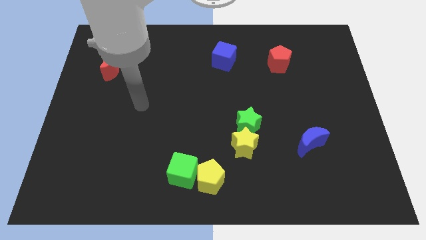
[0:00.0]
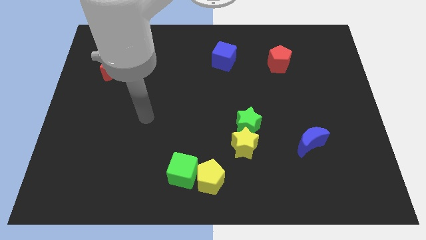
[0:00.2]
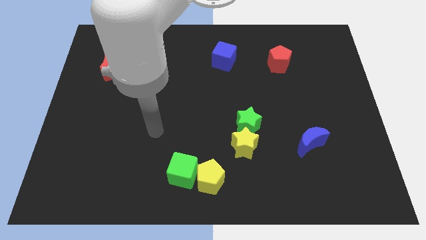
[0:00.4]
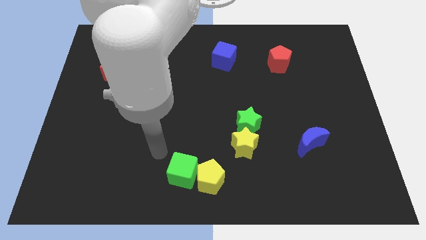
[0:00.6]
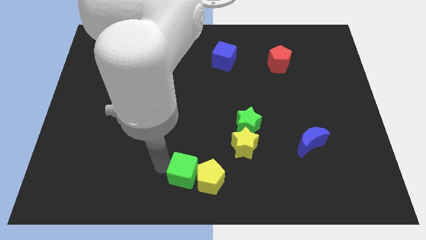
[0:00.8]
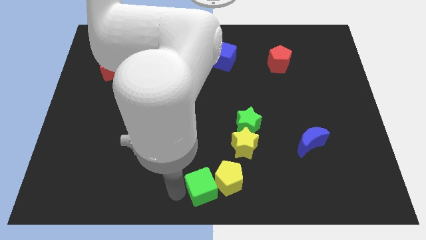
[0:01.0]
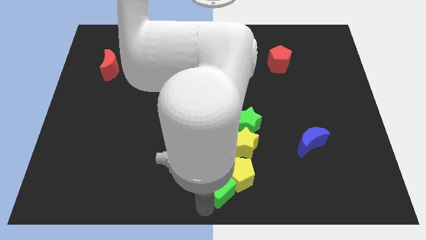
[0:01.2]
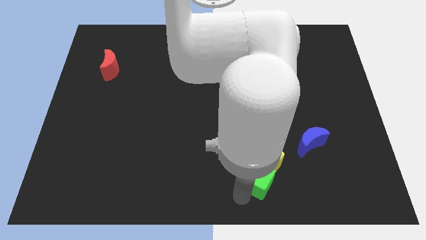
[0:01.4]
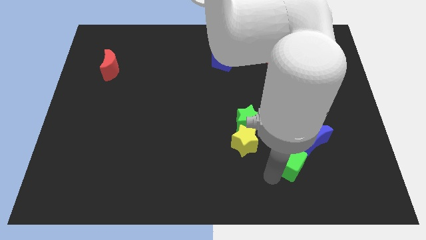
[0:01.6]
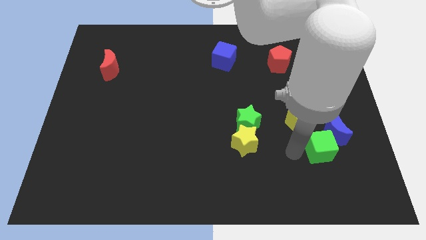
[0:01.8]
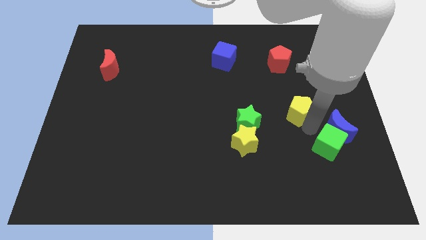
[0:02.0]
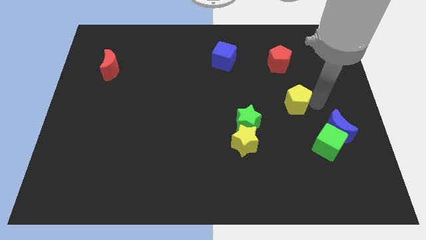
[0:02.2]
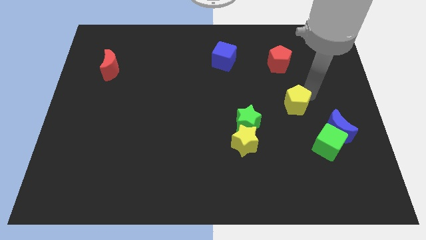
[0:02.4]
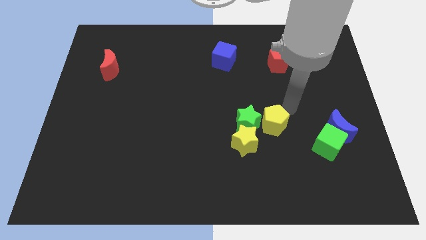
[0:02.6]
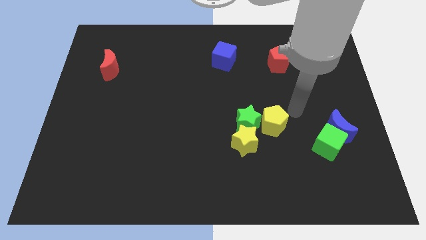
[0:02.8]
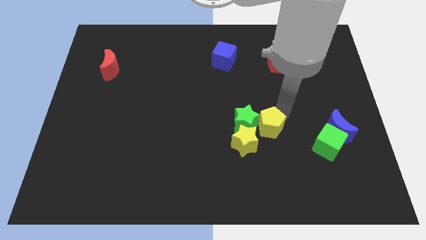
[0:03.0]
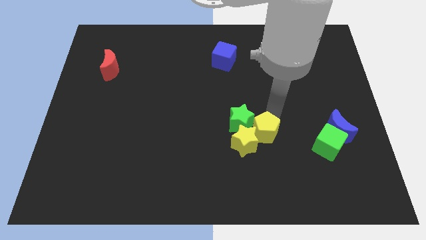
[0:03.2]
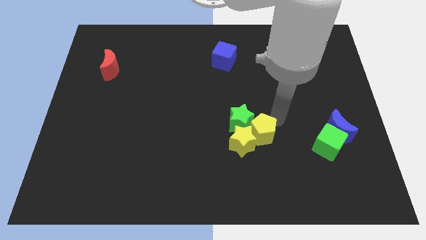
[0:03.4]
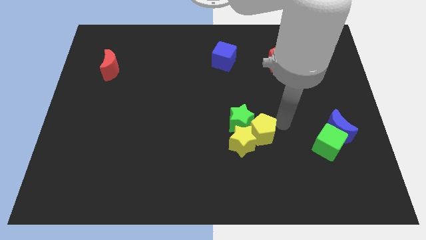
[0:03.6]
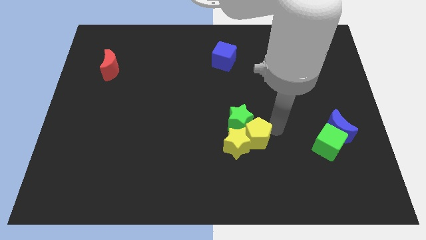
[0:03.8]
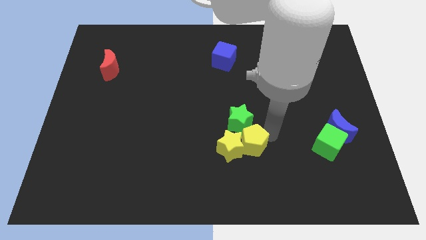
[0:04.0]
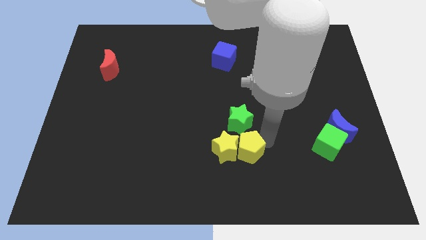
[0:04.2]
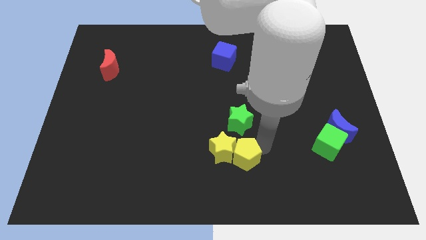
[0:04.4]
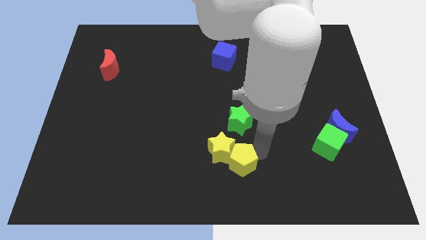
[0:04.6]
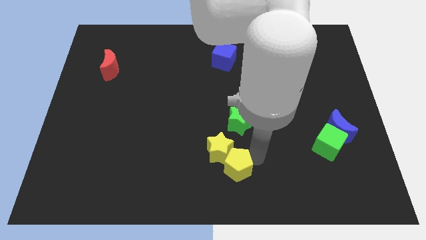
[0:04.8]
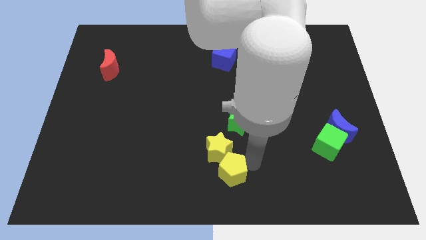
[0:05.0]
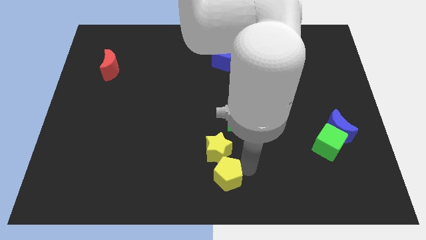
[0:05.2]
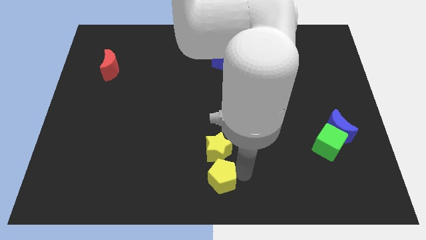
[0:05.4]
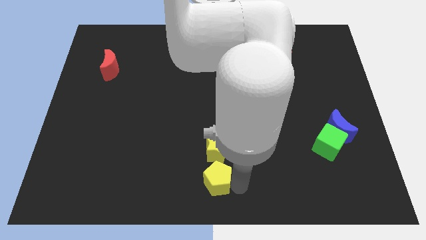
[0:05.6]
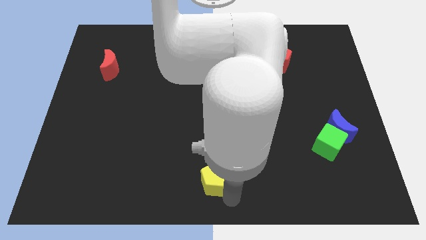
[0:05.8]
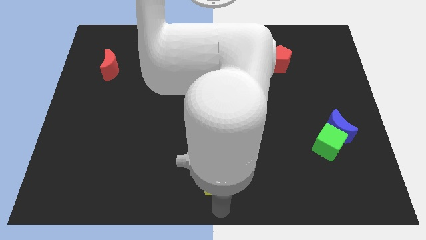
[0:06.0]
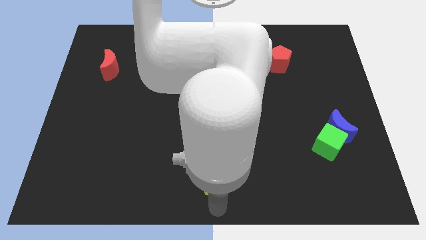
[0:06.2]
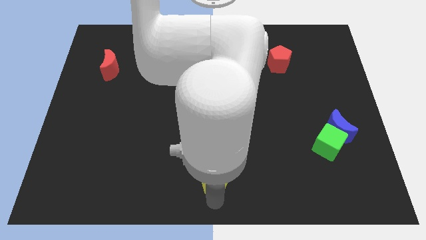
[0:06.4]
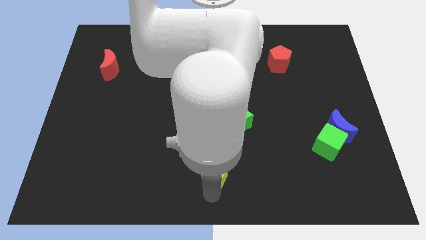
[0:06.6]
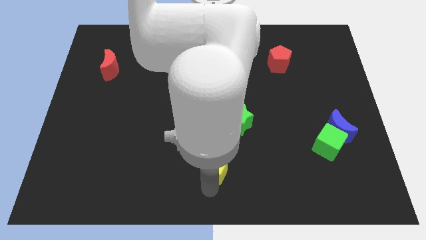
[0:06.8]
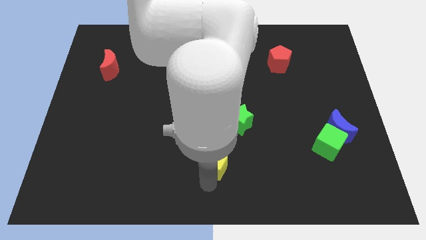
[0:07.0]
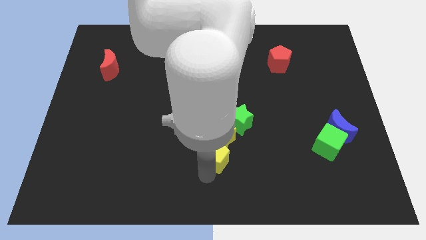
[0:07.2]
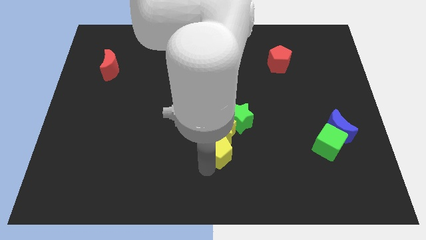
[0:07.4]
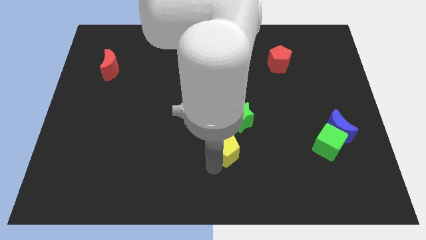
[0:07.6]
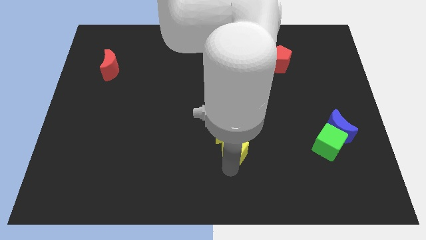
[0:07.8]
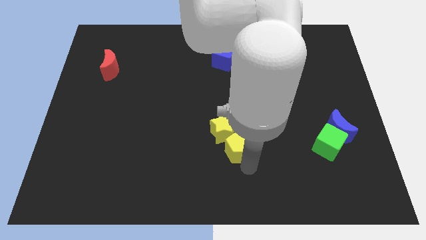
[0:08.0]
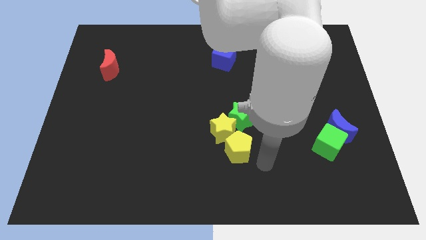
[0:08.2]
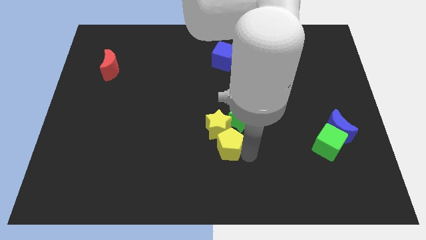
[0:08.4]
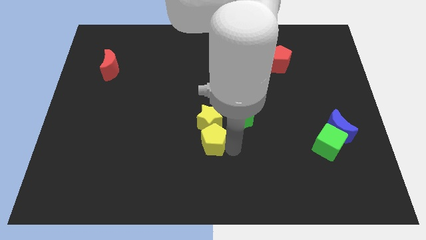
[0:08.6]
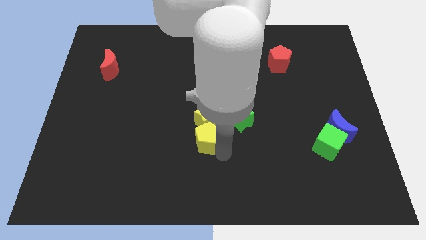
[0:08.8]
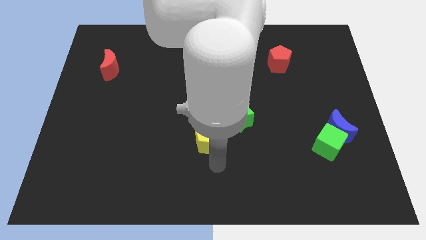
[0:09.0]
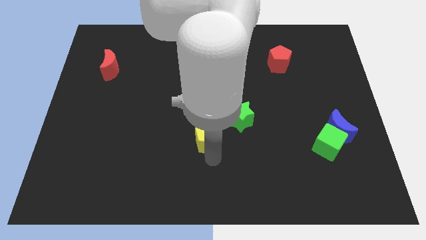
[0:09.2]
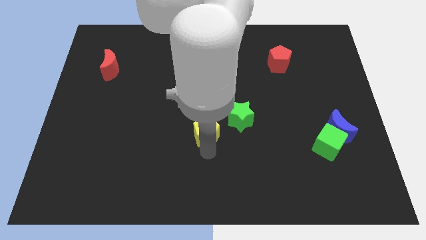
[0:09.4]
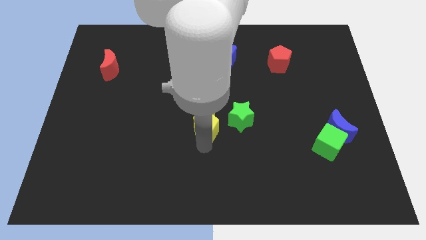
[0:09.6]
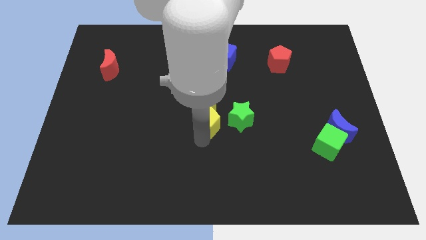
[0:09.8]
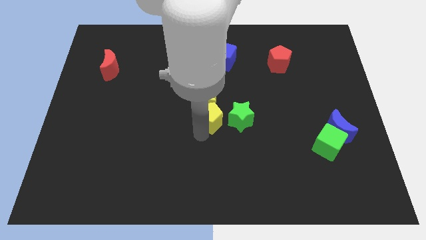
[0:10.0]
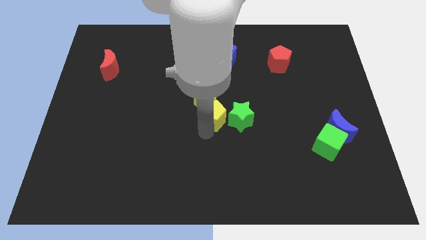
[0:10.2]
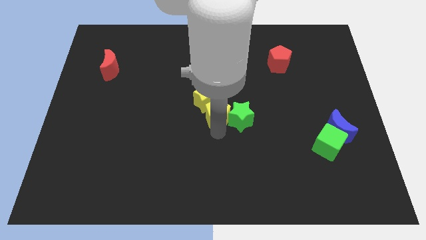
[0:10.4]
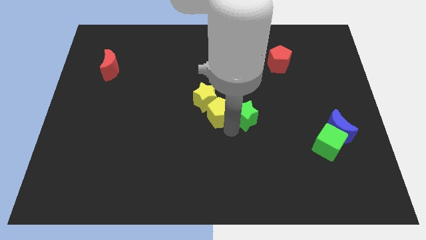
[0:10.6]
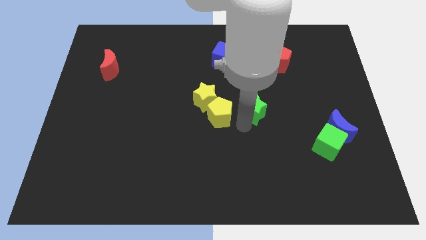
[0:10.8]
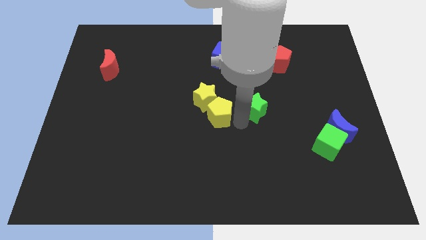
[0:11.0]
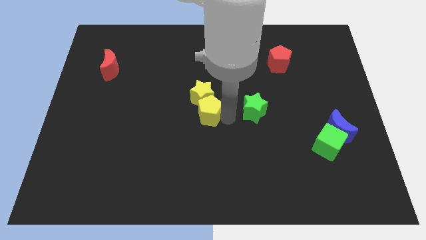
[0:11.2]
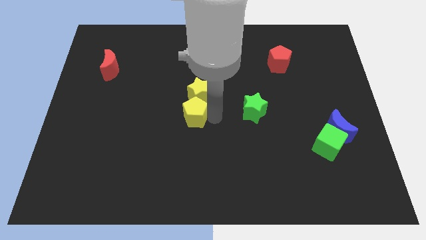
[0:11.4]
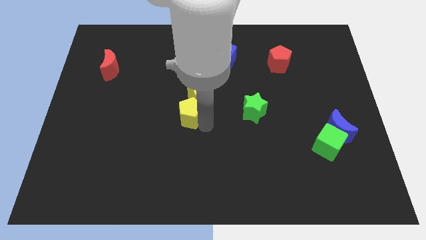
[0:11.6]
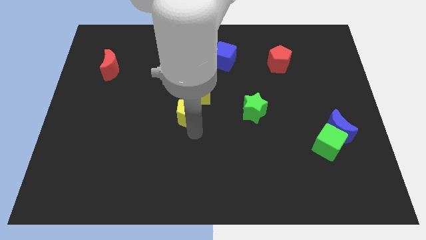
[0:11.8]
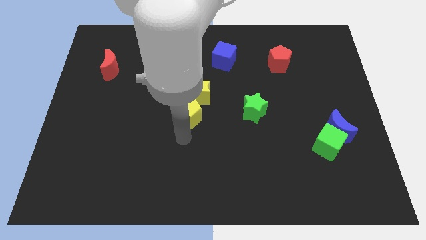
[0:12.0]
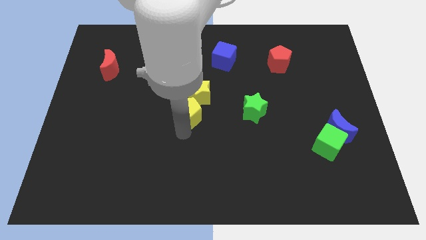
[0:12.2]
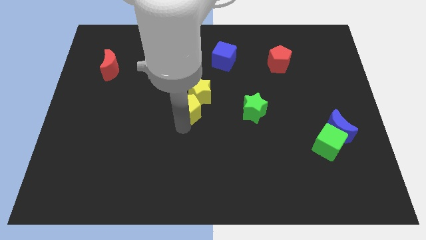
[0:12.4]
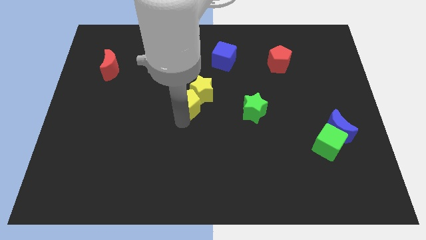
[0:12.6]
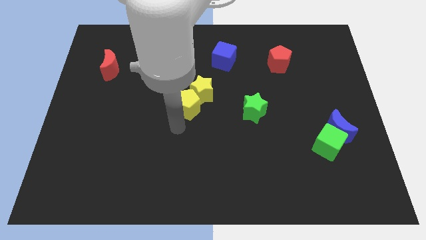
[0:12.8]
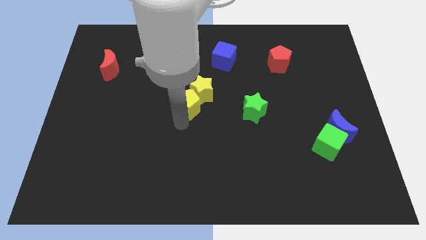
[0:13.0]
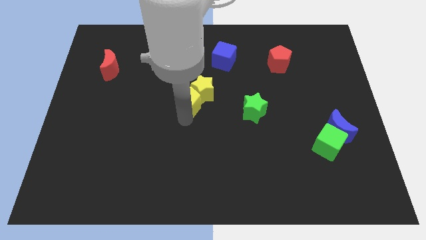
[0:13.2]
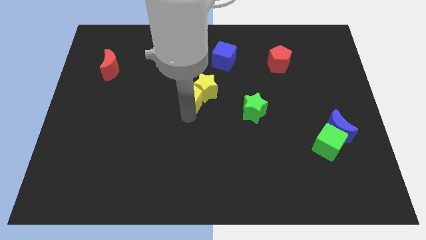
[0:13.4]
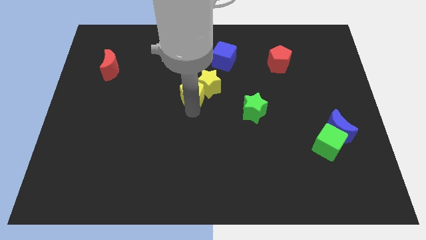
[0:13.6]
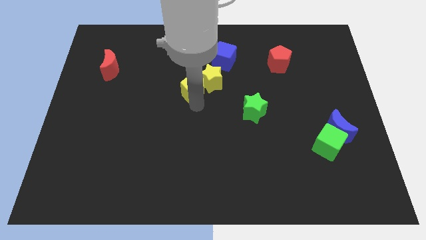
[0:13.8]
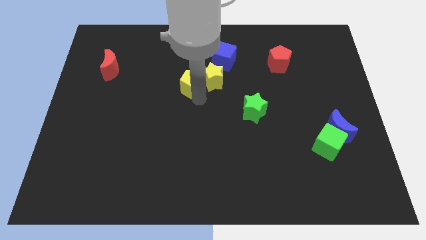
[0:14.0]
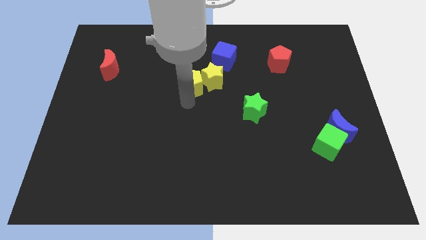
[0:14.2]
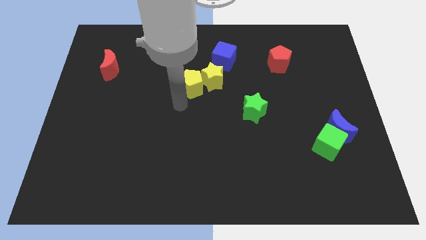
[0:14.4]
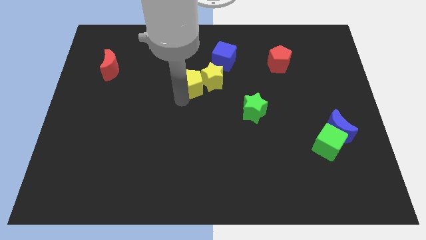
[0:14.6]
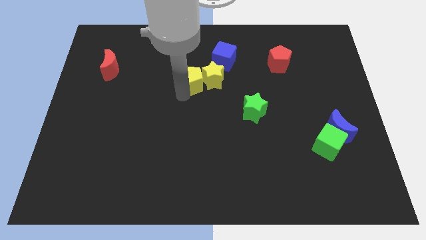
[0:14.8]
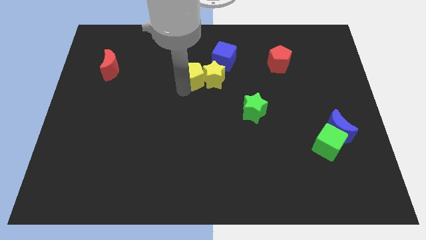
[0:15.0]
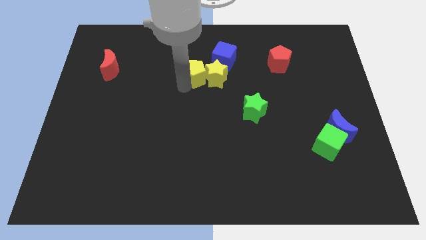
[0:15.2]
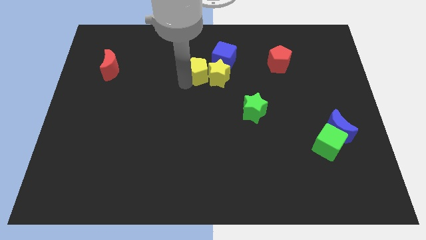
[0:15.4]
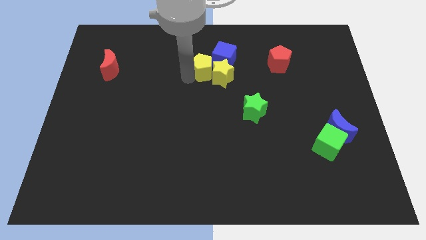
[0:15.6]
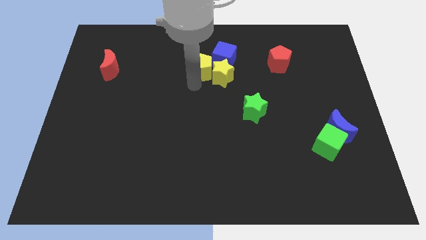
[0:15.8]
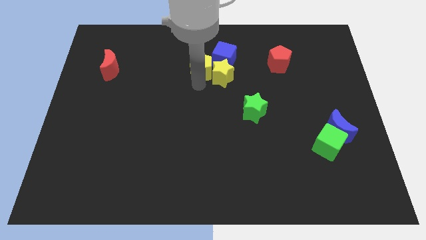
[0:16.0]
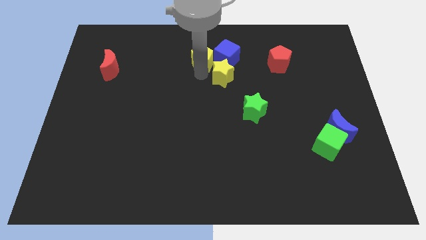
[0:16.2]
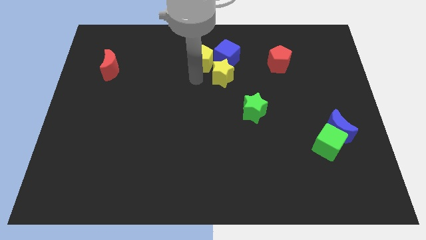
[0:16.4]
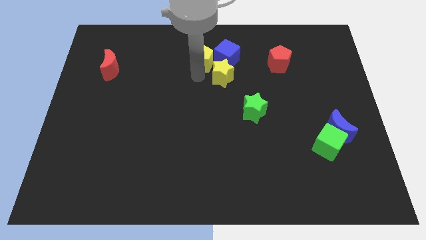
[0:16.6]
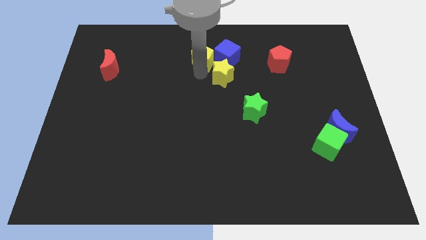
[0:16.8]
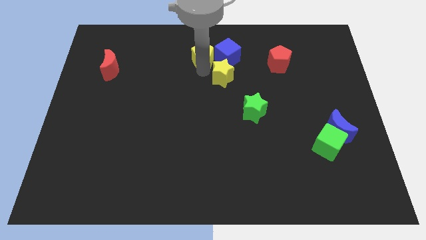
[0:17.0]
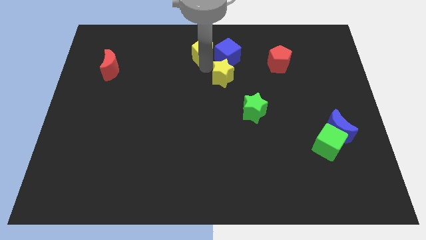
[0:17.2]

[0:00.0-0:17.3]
push the yellow pentagon to the top
